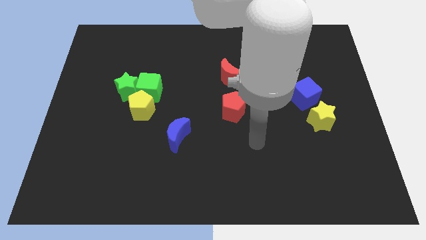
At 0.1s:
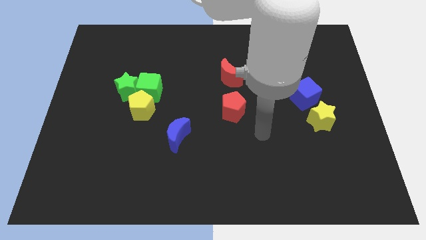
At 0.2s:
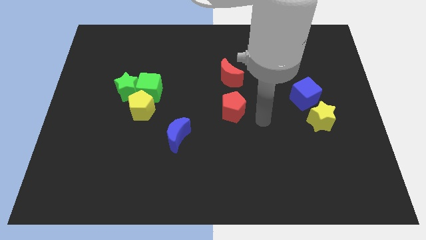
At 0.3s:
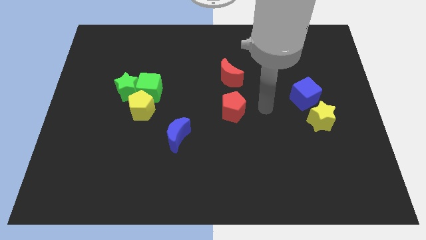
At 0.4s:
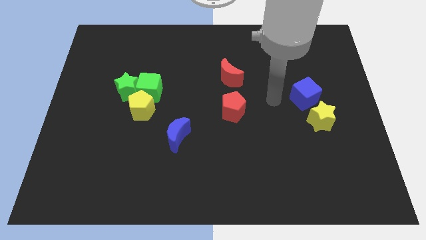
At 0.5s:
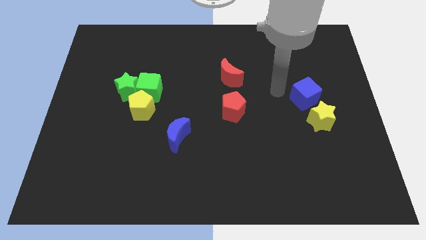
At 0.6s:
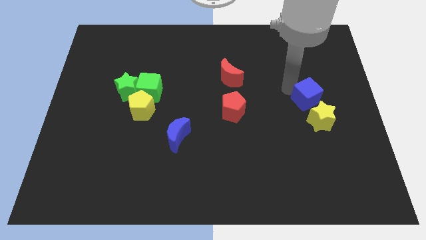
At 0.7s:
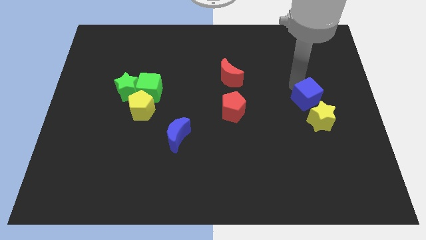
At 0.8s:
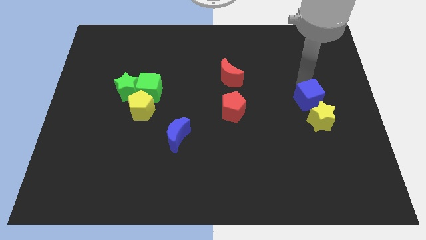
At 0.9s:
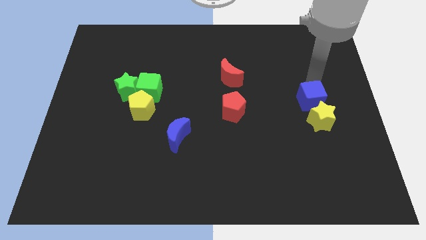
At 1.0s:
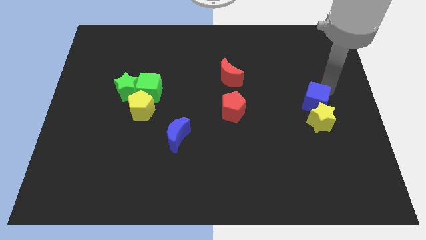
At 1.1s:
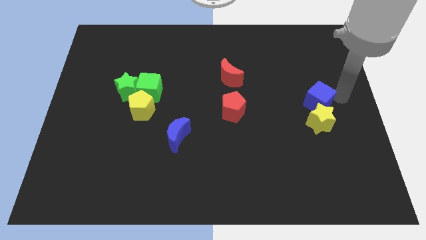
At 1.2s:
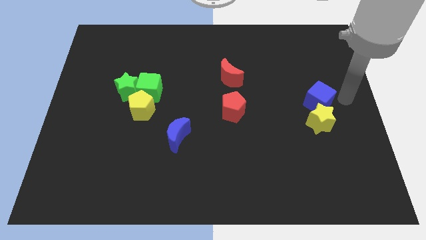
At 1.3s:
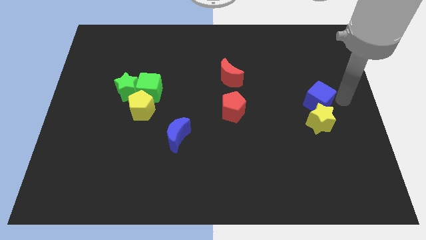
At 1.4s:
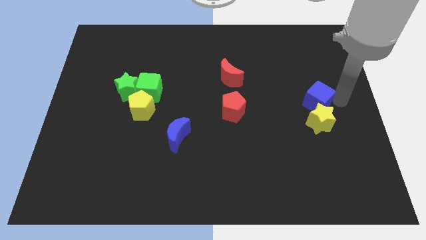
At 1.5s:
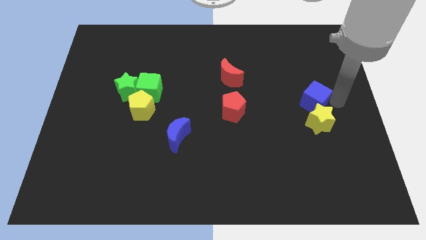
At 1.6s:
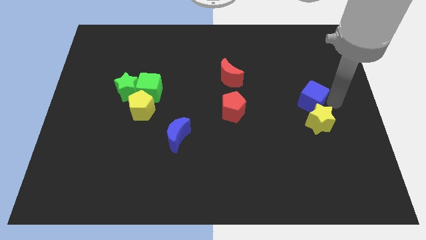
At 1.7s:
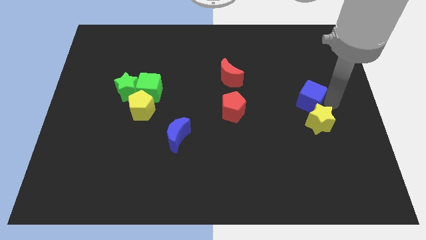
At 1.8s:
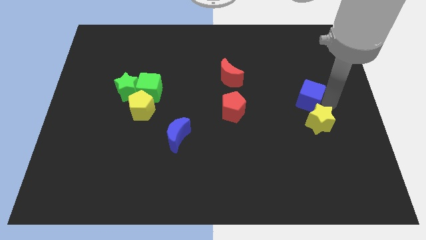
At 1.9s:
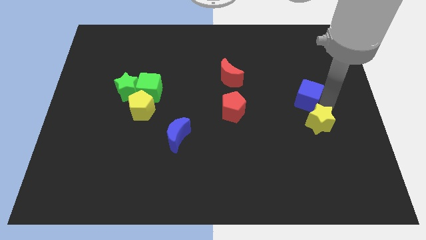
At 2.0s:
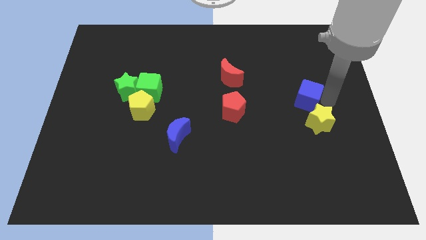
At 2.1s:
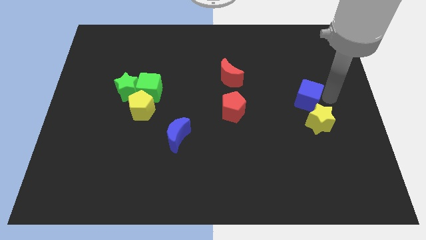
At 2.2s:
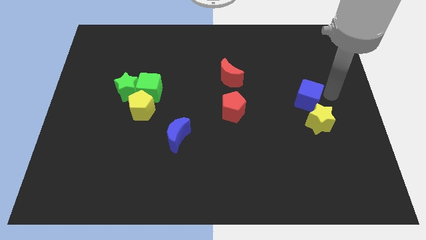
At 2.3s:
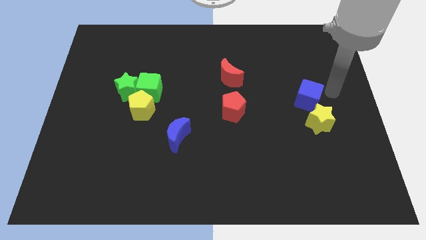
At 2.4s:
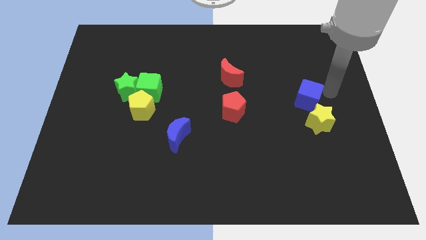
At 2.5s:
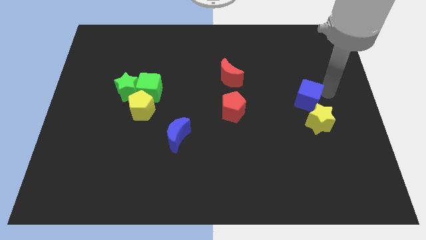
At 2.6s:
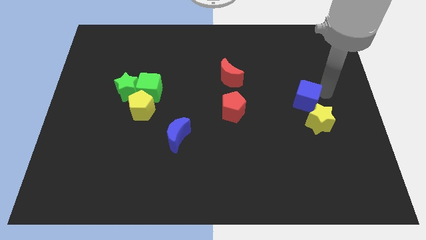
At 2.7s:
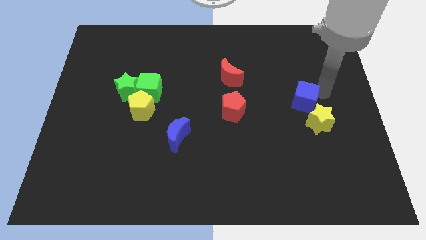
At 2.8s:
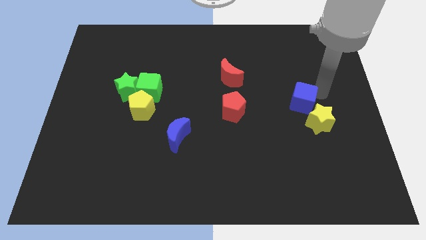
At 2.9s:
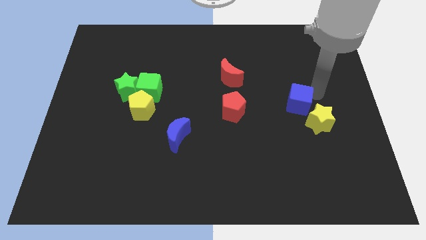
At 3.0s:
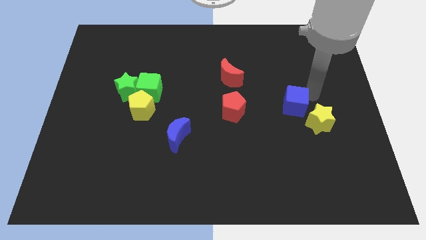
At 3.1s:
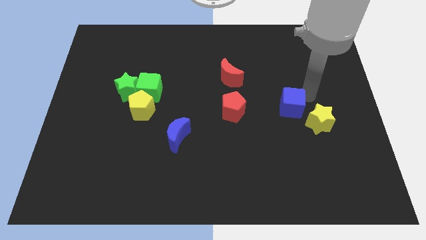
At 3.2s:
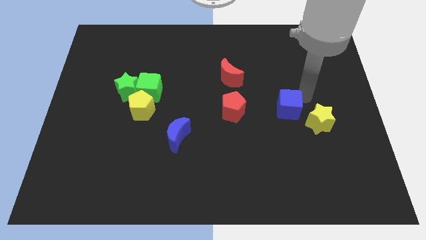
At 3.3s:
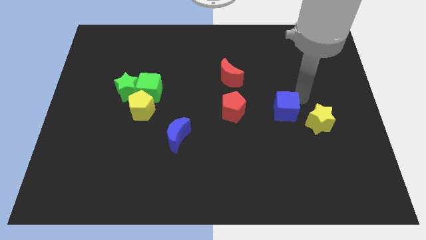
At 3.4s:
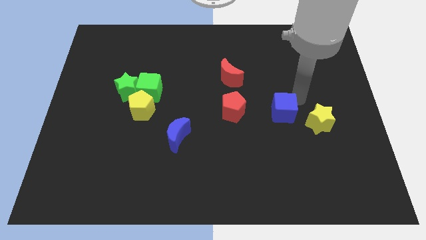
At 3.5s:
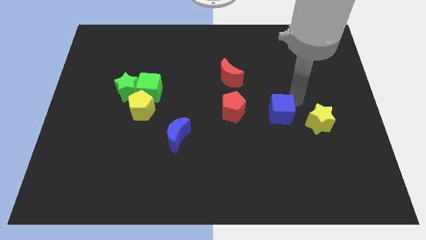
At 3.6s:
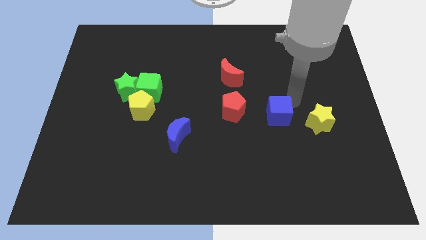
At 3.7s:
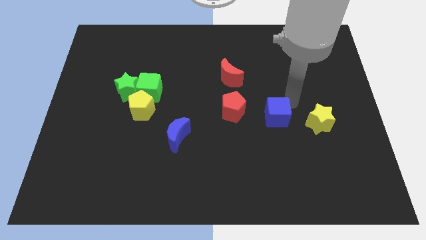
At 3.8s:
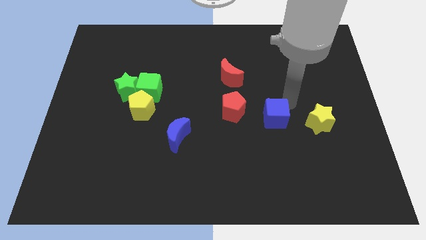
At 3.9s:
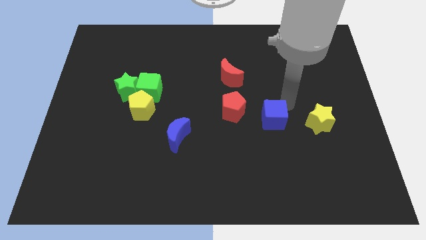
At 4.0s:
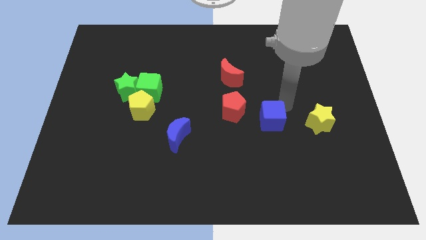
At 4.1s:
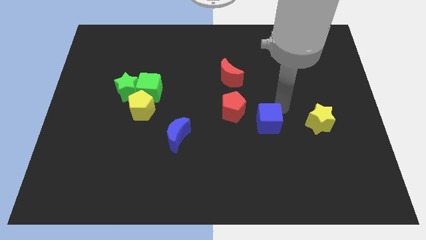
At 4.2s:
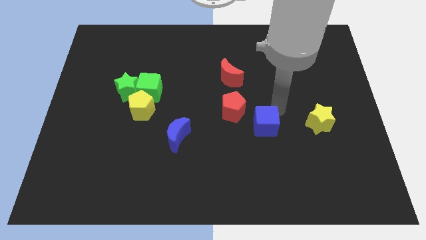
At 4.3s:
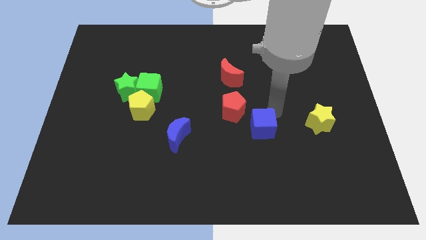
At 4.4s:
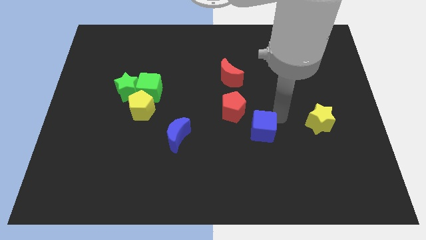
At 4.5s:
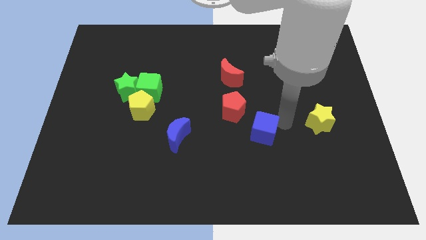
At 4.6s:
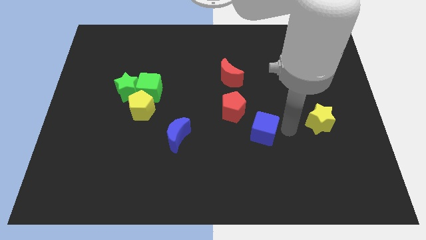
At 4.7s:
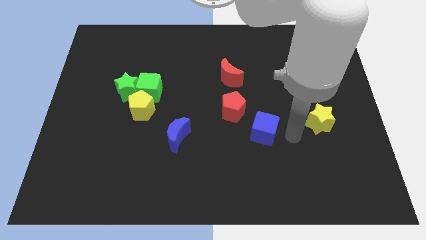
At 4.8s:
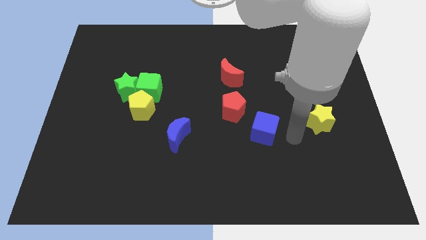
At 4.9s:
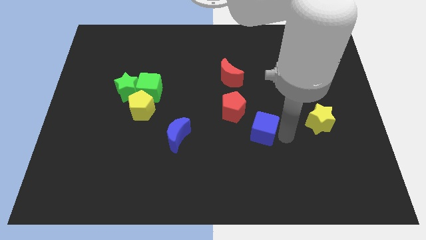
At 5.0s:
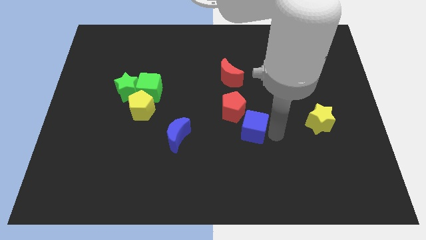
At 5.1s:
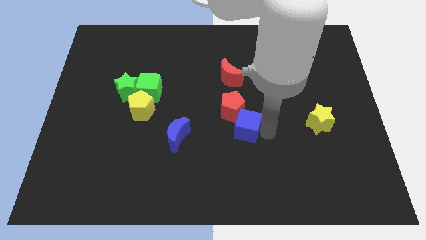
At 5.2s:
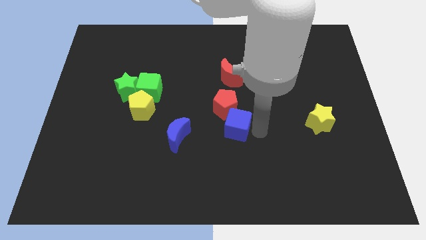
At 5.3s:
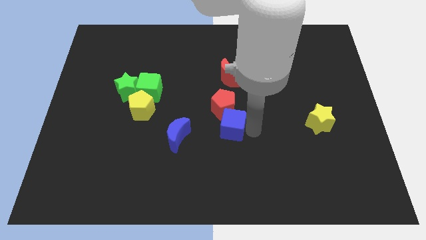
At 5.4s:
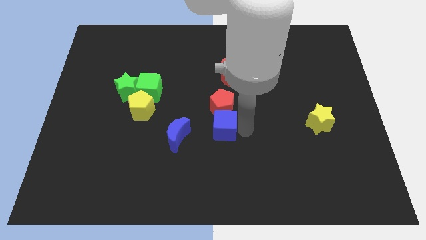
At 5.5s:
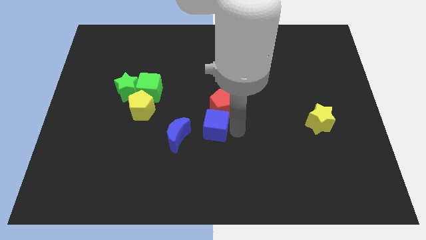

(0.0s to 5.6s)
move the blue cube diagonally up and to the right of the blue moon

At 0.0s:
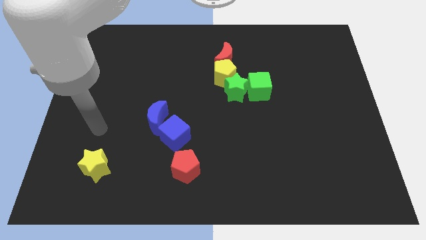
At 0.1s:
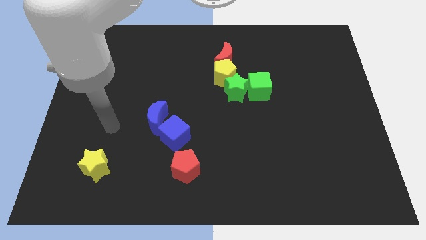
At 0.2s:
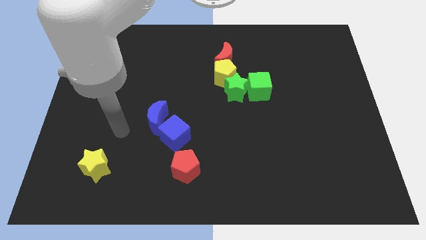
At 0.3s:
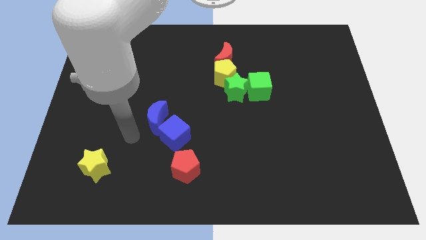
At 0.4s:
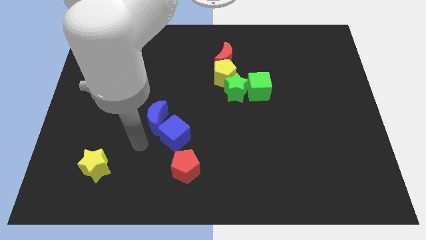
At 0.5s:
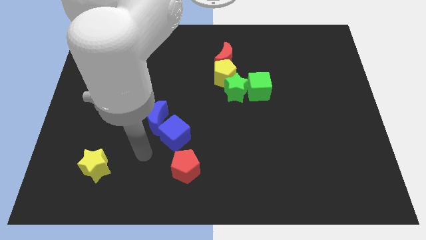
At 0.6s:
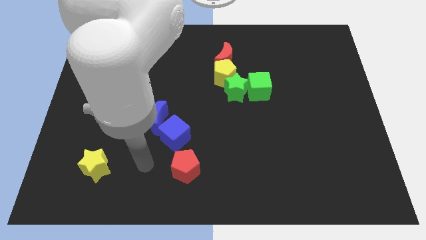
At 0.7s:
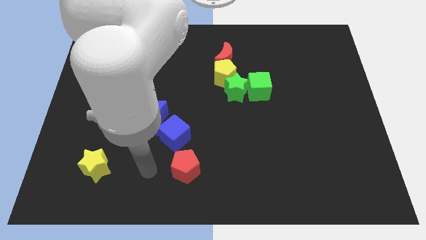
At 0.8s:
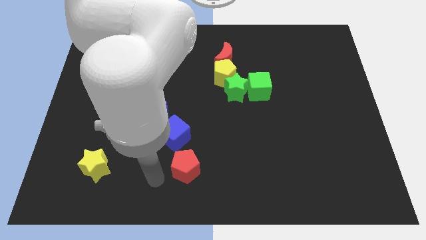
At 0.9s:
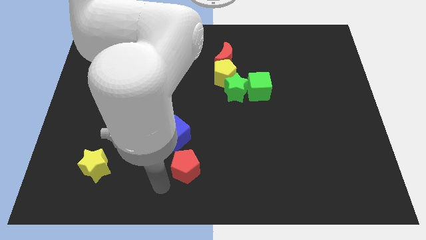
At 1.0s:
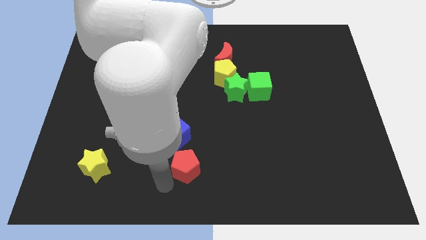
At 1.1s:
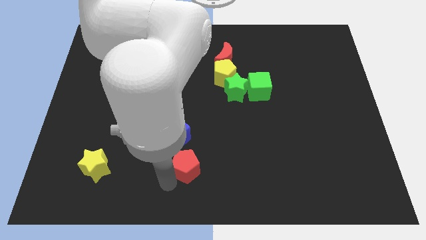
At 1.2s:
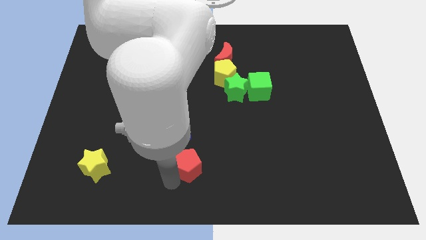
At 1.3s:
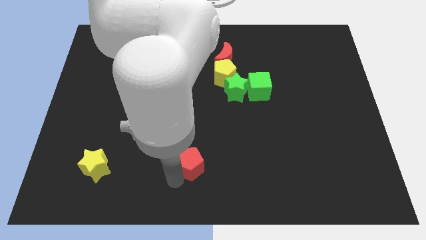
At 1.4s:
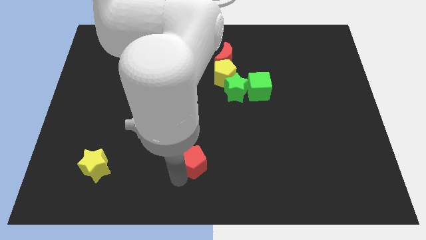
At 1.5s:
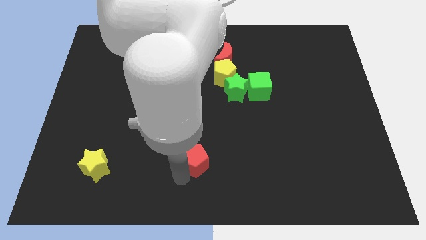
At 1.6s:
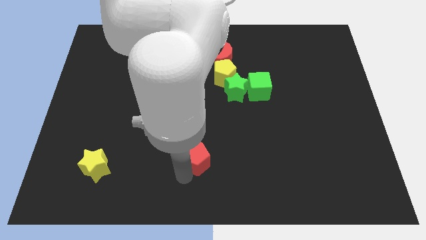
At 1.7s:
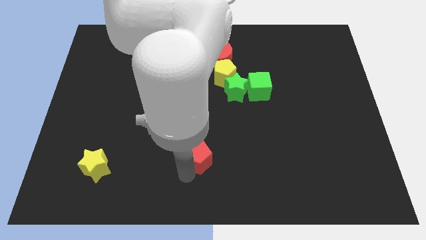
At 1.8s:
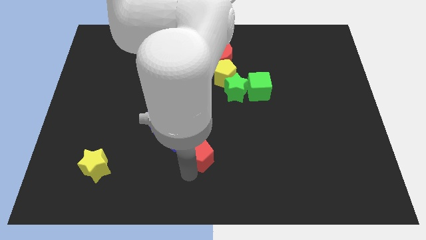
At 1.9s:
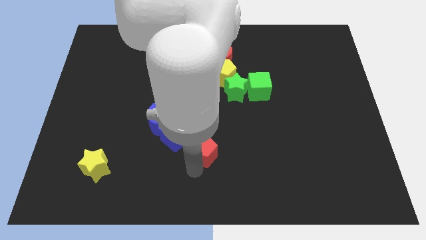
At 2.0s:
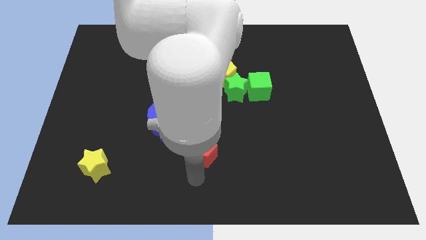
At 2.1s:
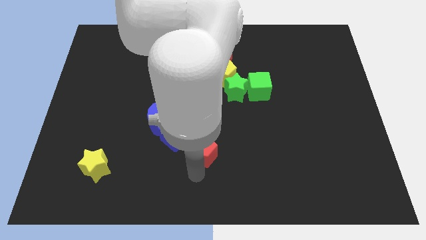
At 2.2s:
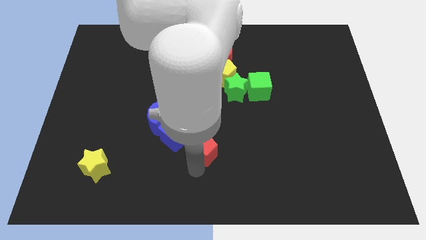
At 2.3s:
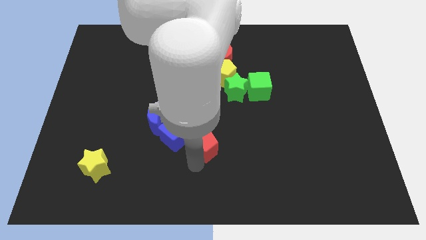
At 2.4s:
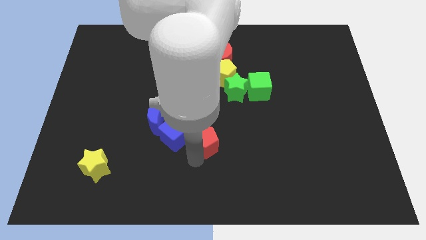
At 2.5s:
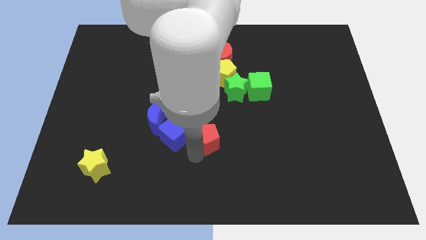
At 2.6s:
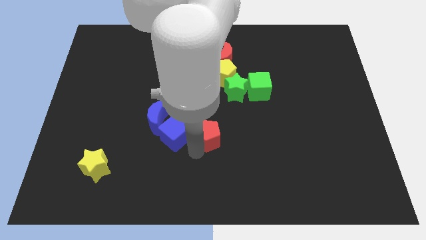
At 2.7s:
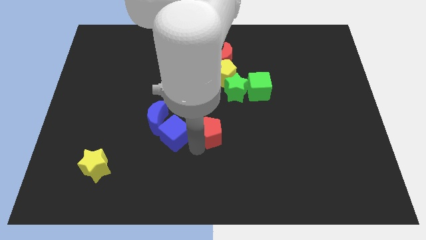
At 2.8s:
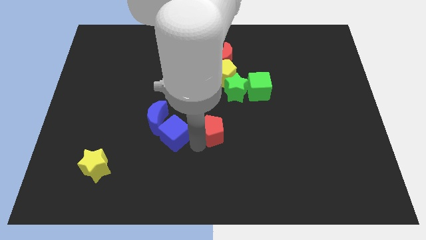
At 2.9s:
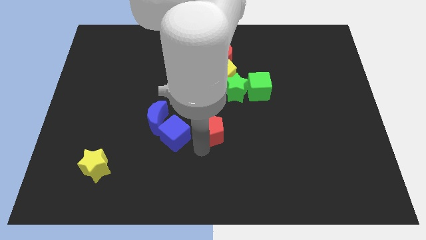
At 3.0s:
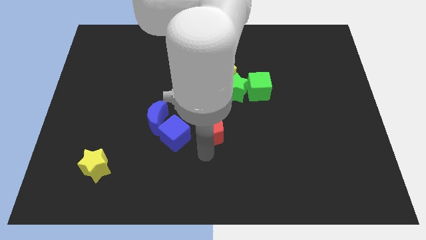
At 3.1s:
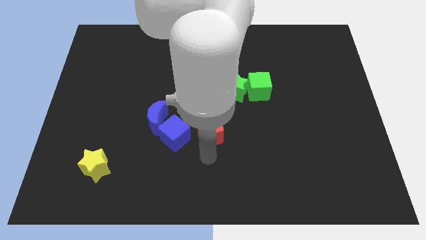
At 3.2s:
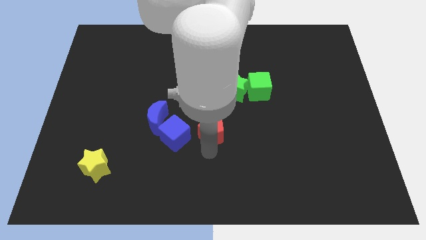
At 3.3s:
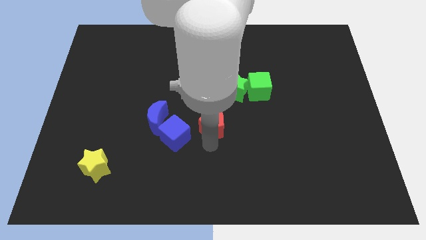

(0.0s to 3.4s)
push the red pentagon to the bottom left of the green star
